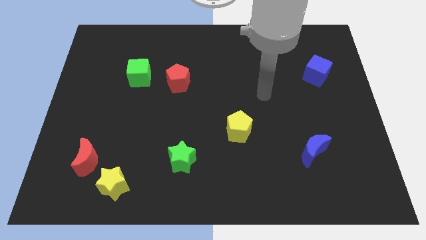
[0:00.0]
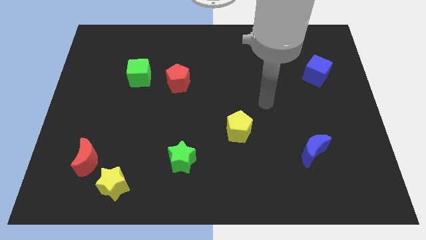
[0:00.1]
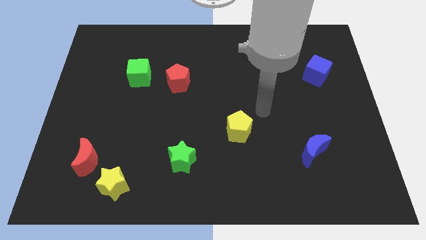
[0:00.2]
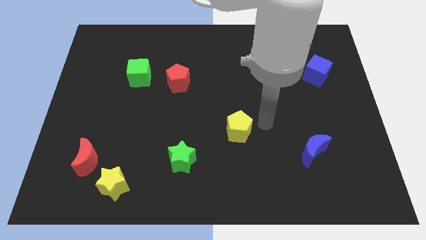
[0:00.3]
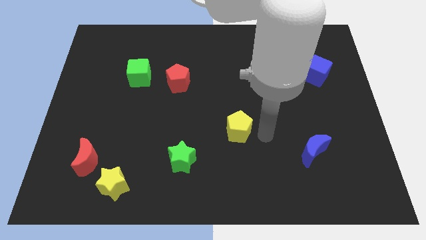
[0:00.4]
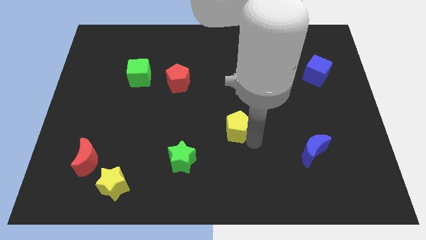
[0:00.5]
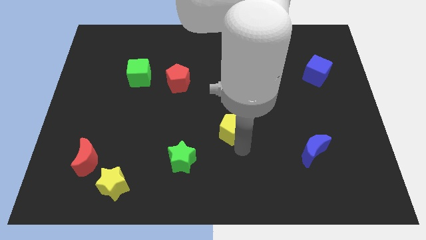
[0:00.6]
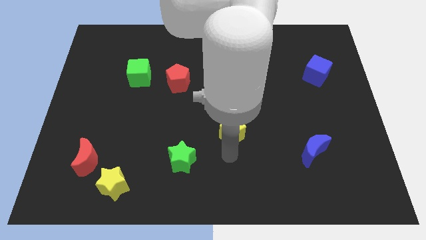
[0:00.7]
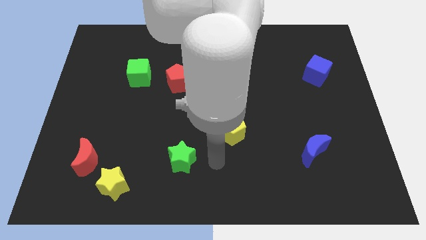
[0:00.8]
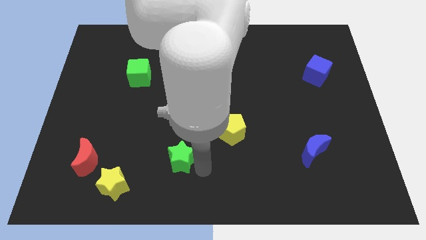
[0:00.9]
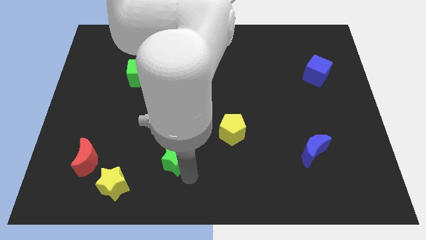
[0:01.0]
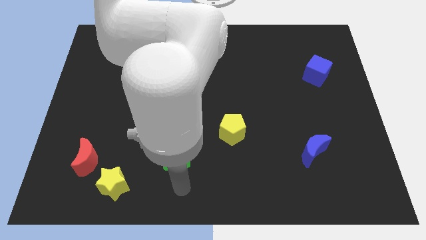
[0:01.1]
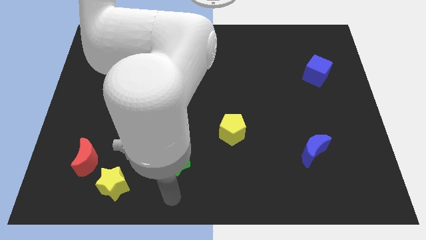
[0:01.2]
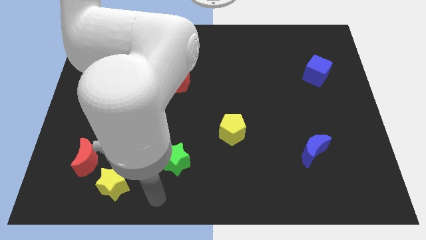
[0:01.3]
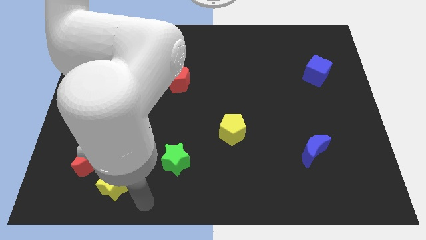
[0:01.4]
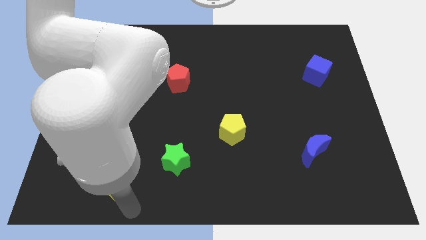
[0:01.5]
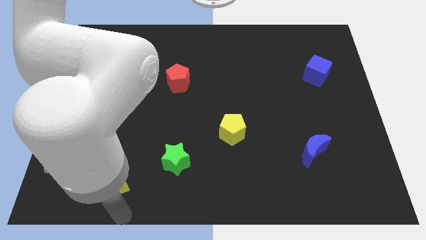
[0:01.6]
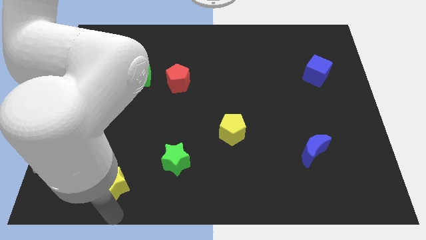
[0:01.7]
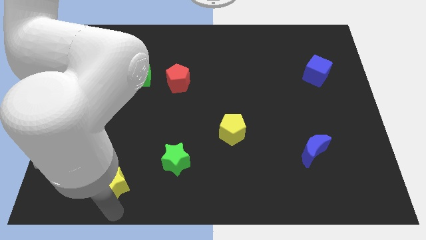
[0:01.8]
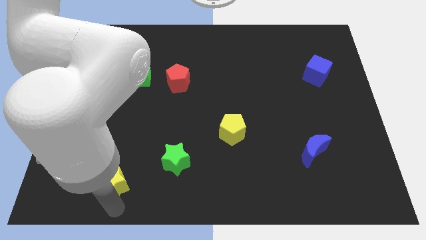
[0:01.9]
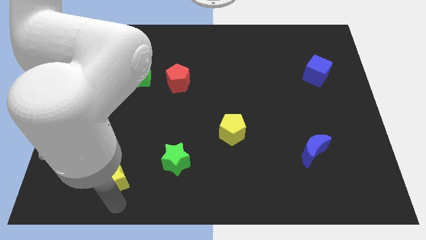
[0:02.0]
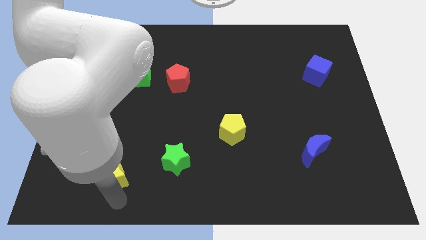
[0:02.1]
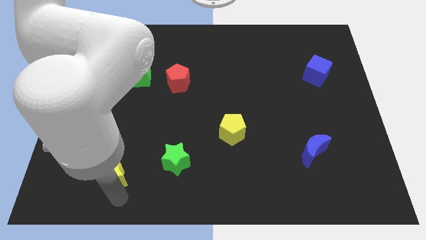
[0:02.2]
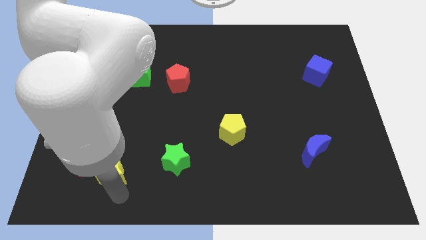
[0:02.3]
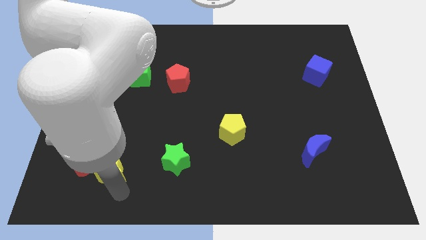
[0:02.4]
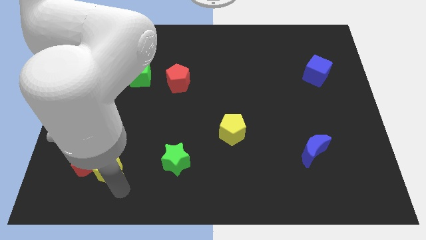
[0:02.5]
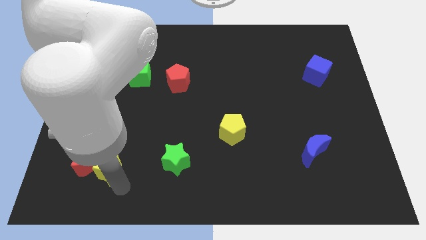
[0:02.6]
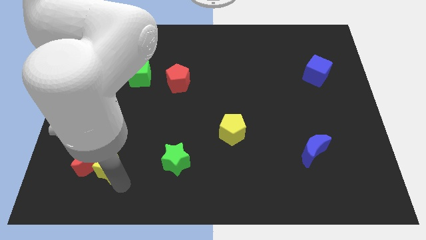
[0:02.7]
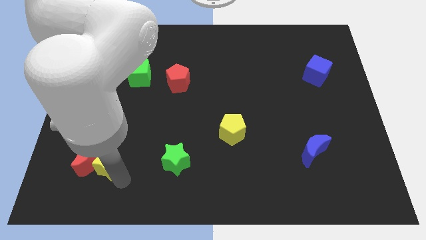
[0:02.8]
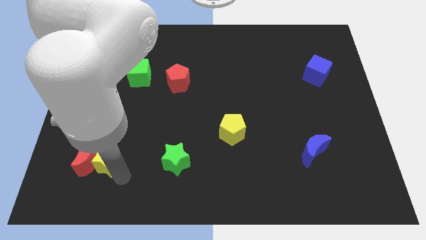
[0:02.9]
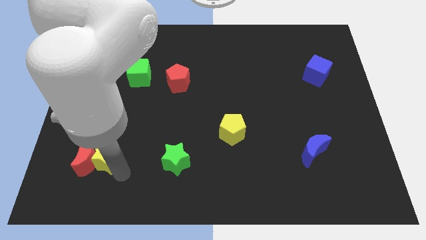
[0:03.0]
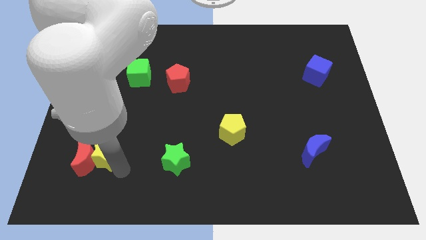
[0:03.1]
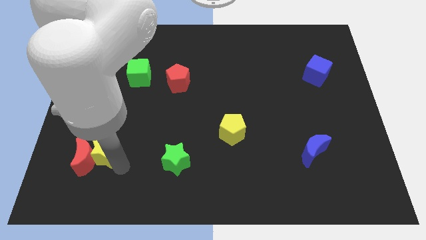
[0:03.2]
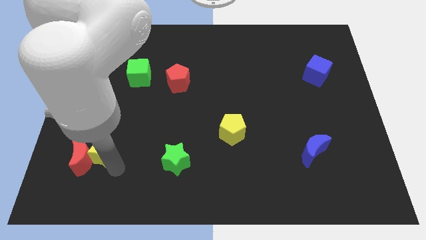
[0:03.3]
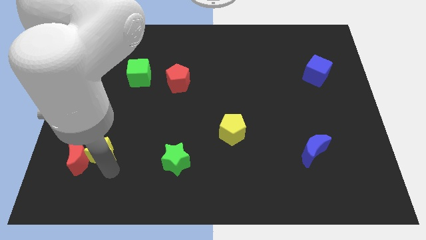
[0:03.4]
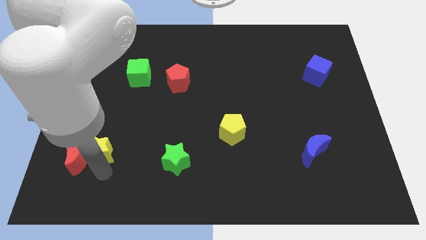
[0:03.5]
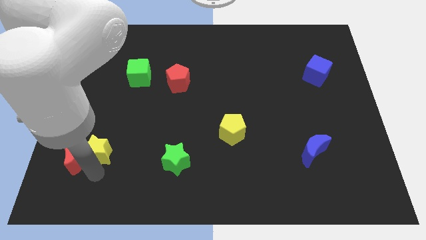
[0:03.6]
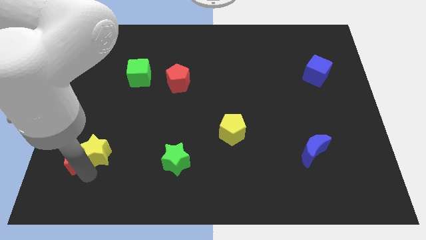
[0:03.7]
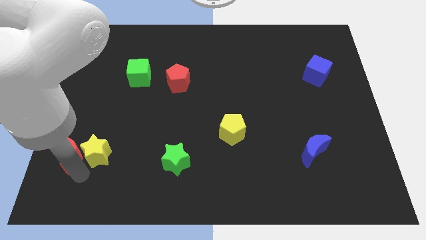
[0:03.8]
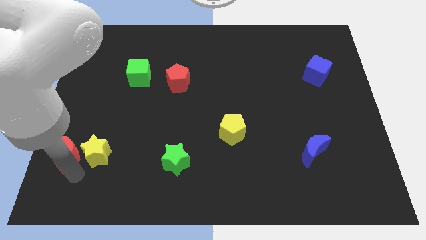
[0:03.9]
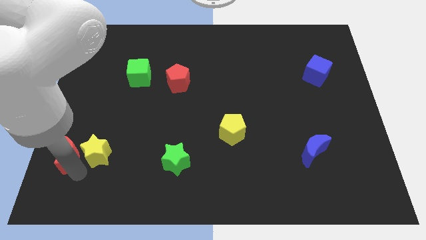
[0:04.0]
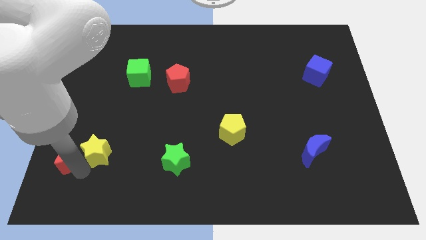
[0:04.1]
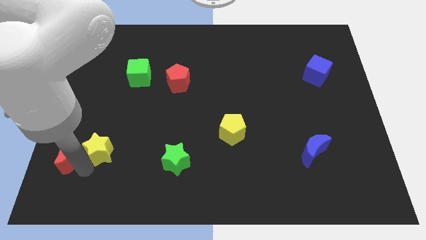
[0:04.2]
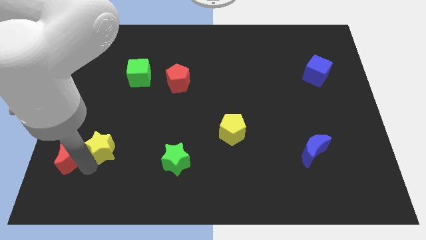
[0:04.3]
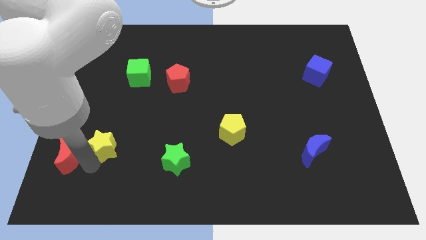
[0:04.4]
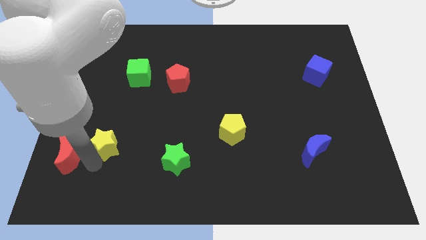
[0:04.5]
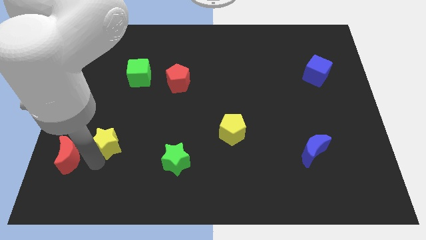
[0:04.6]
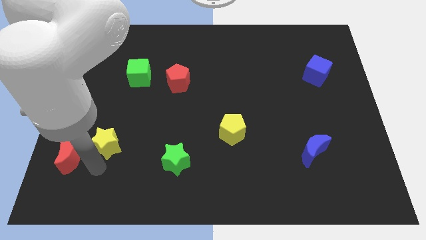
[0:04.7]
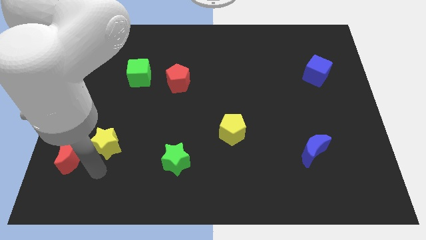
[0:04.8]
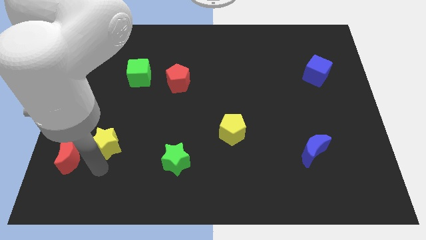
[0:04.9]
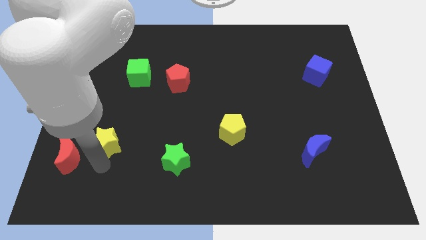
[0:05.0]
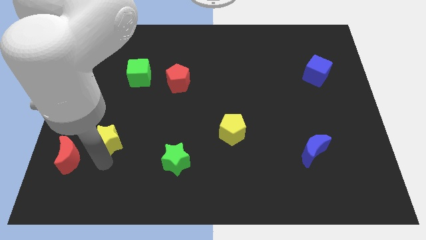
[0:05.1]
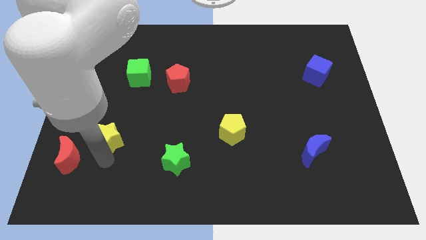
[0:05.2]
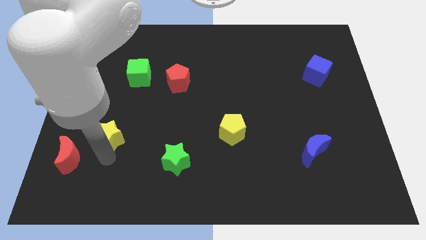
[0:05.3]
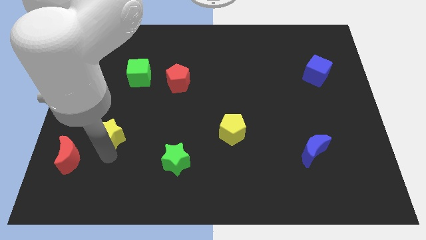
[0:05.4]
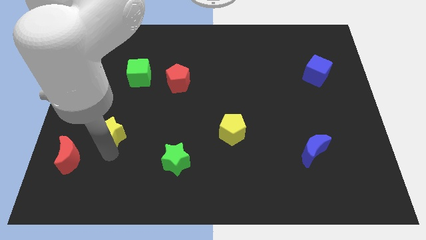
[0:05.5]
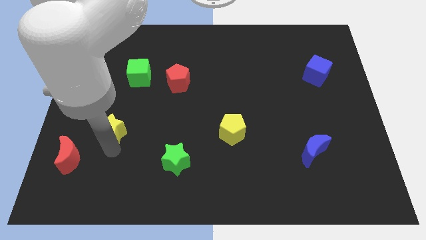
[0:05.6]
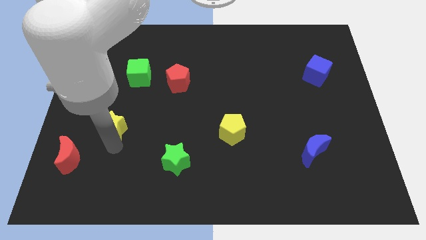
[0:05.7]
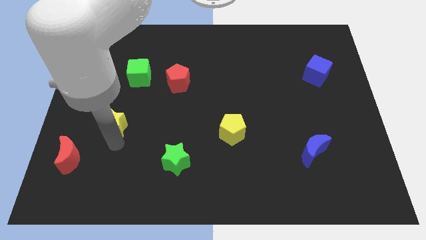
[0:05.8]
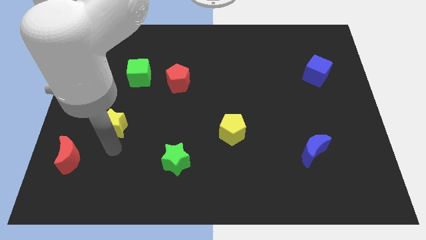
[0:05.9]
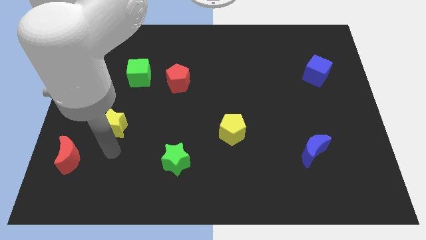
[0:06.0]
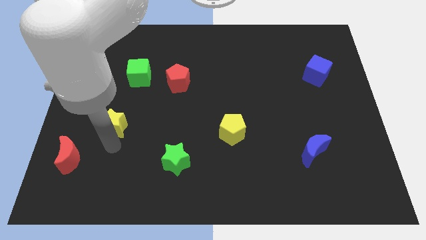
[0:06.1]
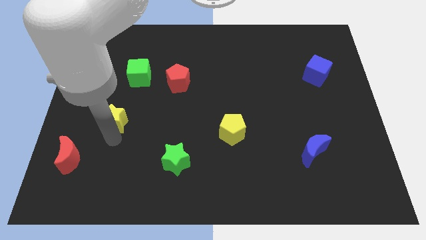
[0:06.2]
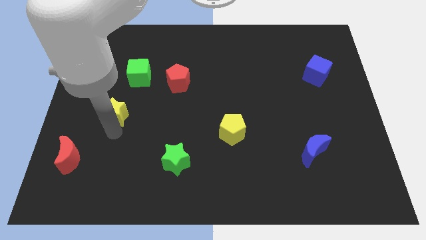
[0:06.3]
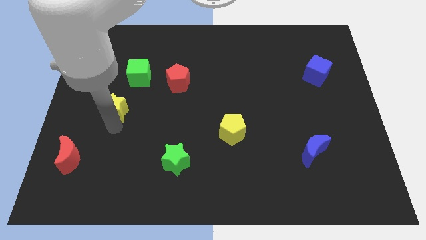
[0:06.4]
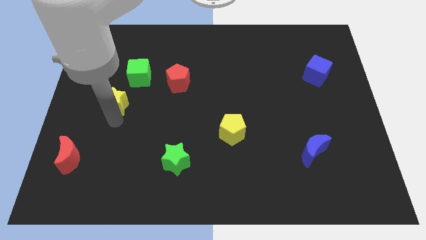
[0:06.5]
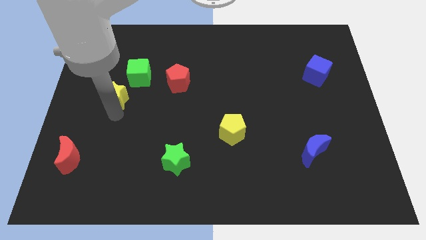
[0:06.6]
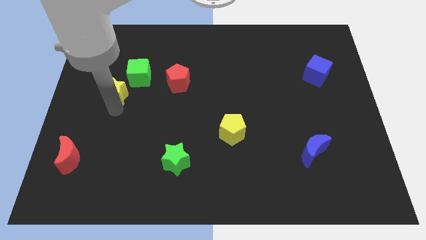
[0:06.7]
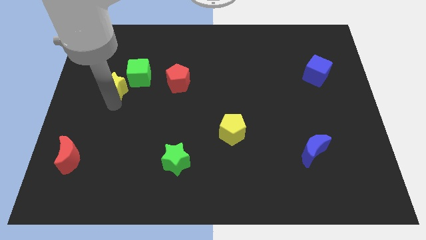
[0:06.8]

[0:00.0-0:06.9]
slide the yellow star to the left of the red pentagon
